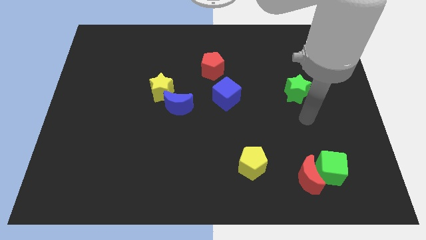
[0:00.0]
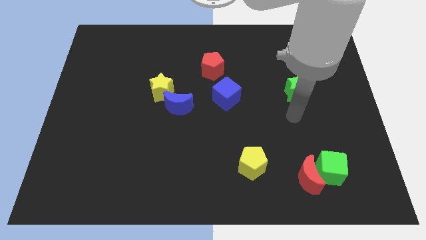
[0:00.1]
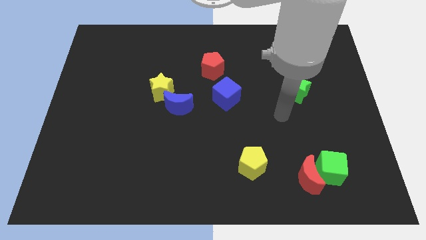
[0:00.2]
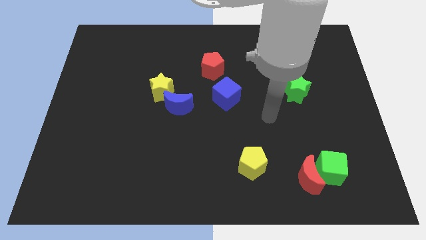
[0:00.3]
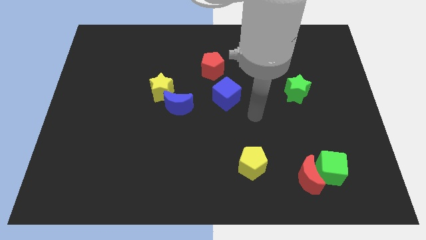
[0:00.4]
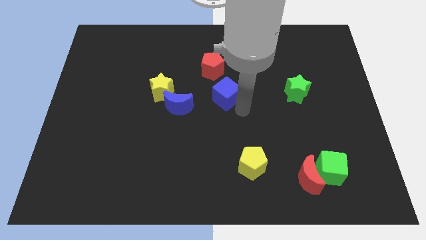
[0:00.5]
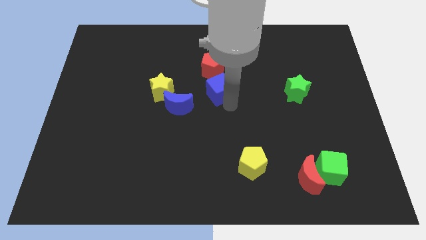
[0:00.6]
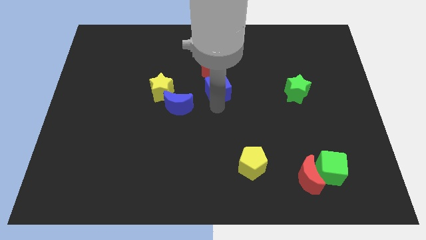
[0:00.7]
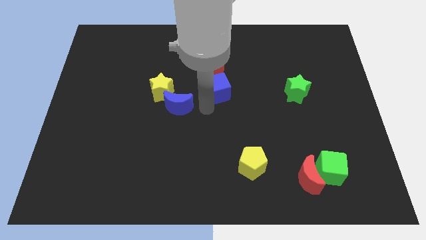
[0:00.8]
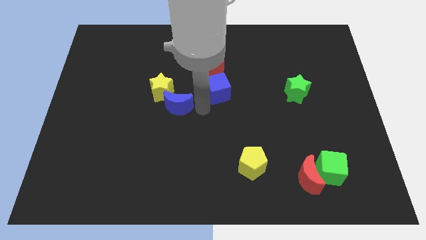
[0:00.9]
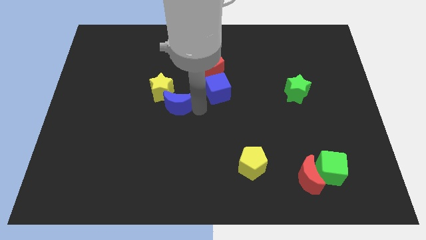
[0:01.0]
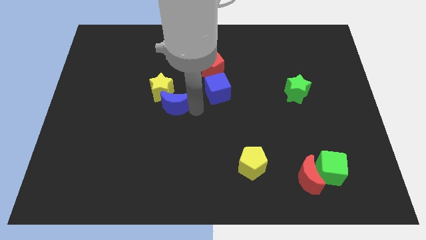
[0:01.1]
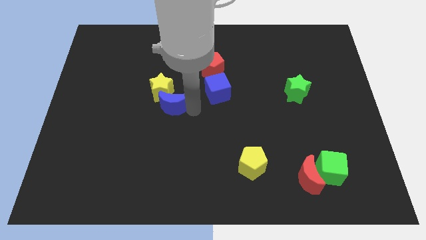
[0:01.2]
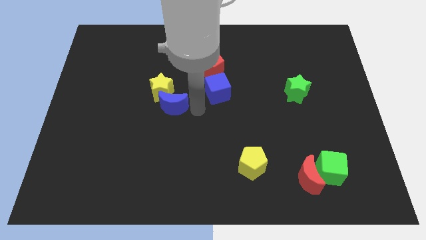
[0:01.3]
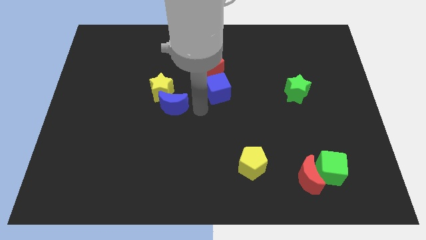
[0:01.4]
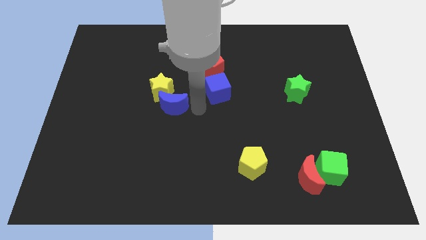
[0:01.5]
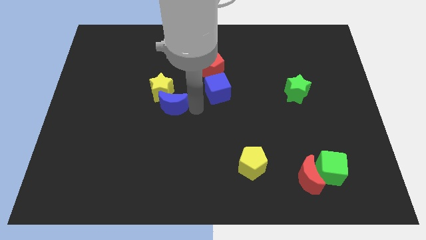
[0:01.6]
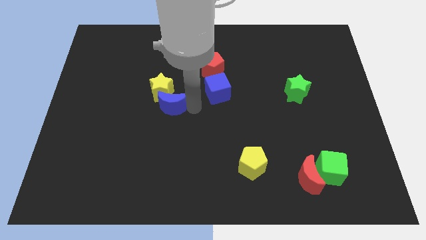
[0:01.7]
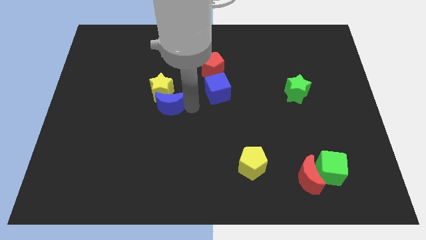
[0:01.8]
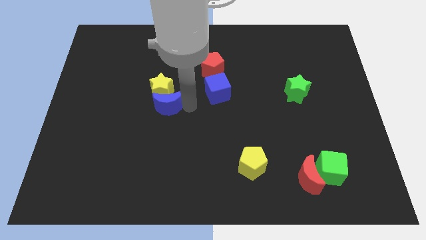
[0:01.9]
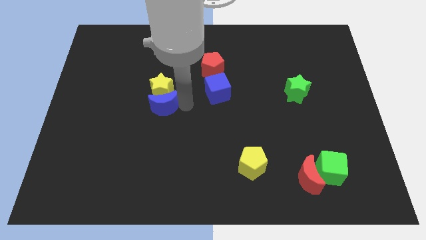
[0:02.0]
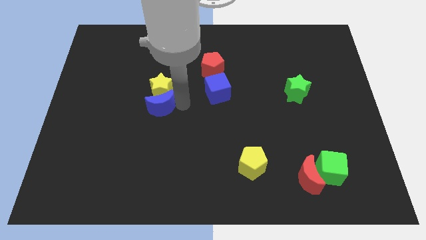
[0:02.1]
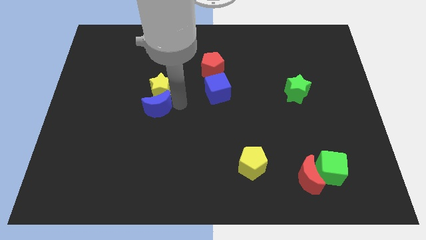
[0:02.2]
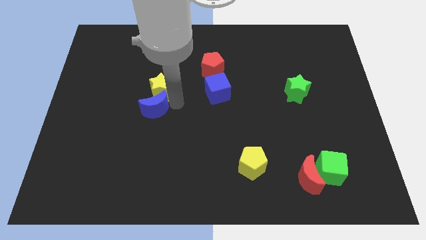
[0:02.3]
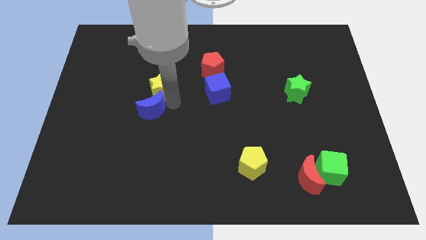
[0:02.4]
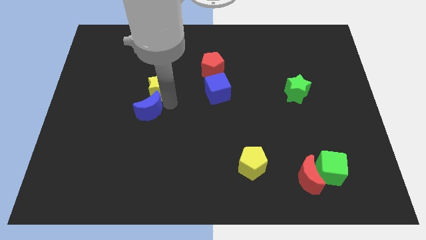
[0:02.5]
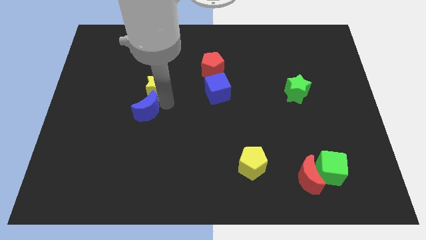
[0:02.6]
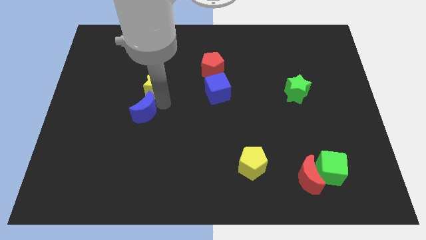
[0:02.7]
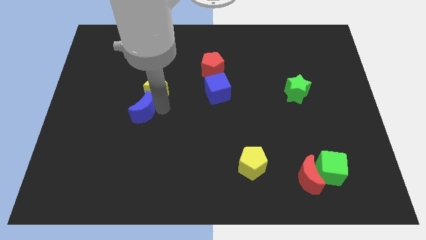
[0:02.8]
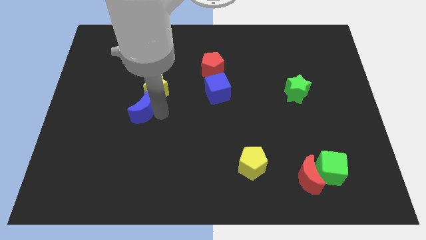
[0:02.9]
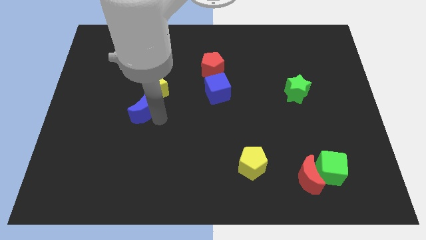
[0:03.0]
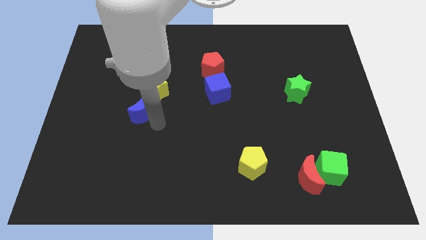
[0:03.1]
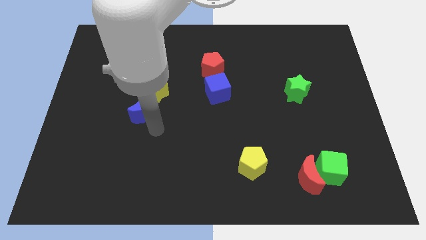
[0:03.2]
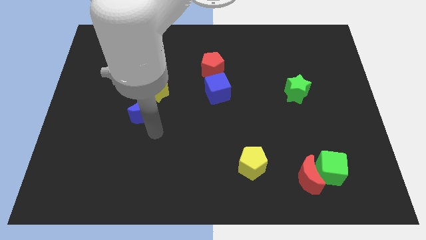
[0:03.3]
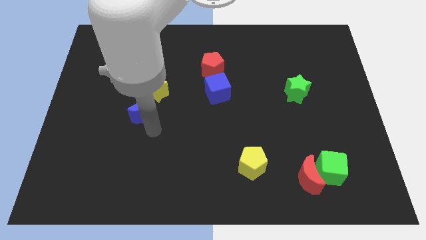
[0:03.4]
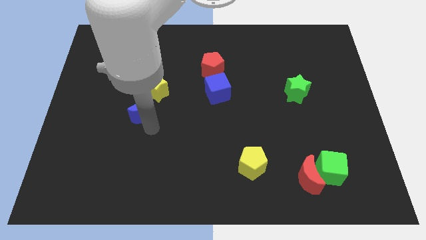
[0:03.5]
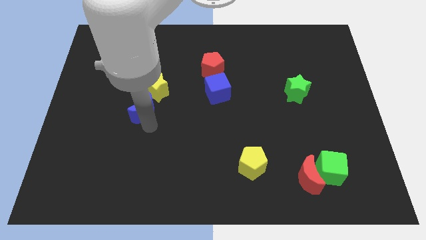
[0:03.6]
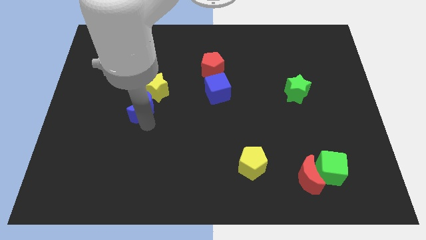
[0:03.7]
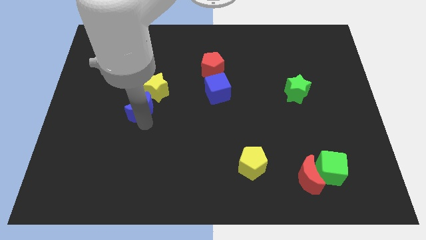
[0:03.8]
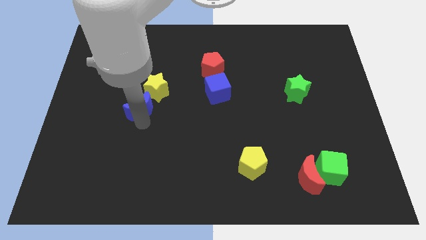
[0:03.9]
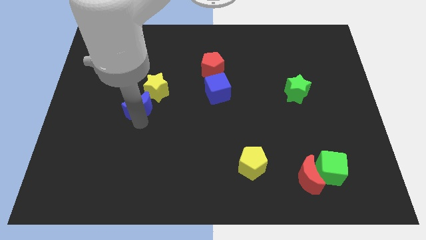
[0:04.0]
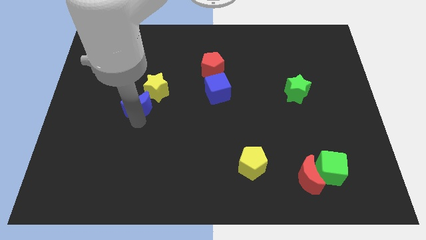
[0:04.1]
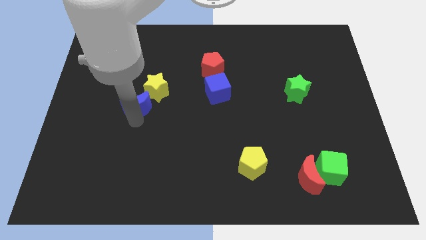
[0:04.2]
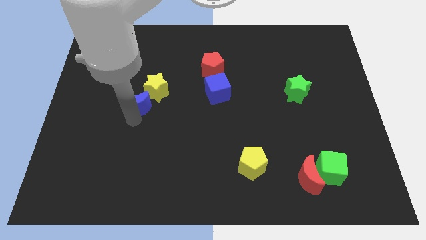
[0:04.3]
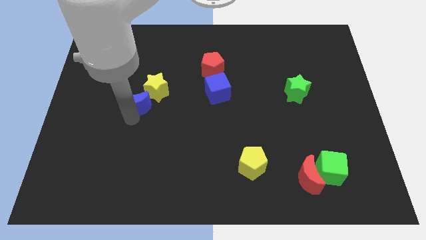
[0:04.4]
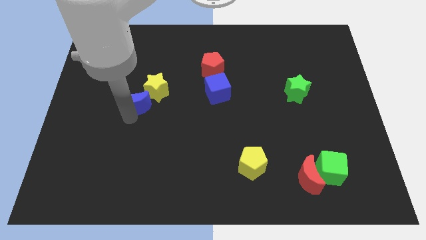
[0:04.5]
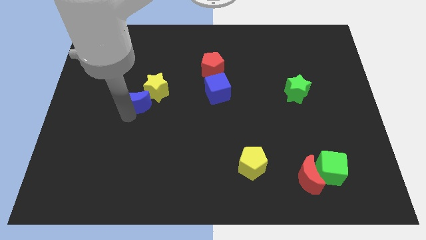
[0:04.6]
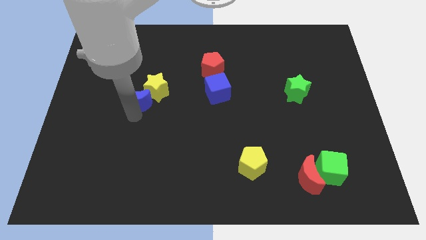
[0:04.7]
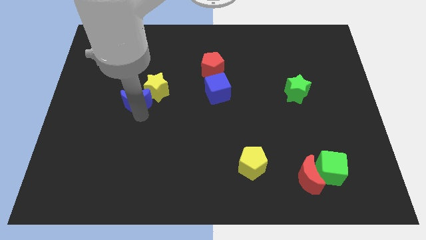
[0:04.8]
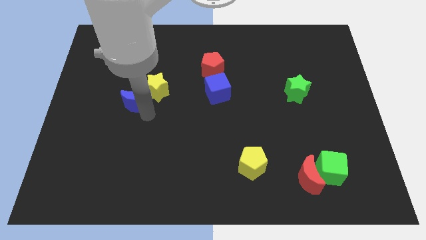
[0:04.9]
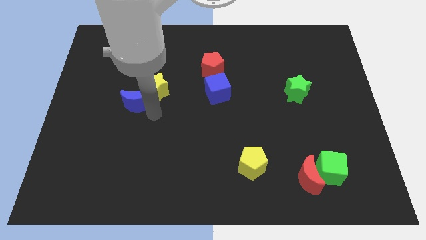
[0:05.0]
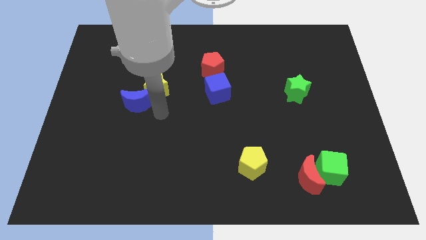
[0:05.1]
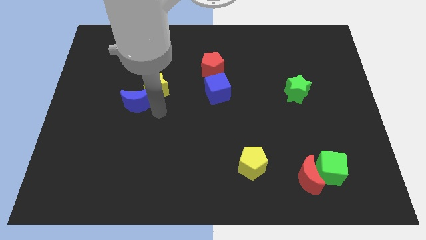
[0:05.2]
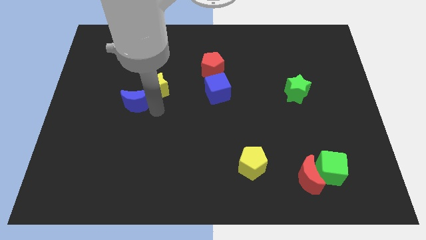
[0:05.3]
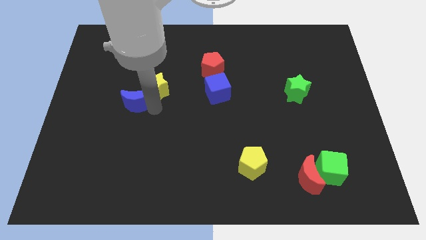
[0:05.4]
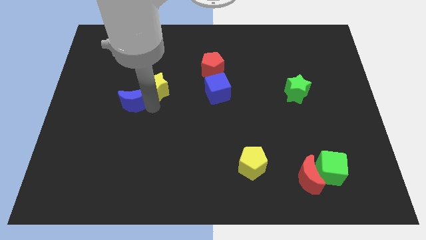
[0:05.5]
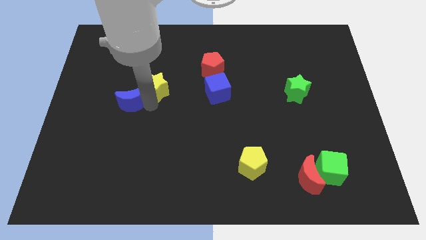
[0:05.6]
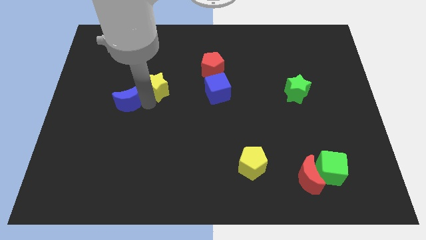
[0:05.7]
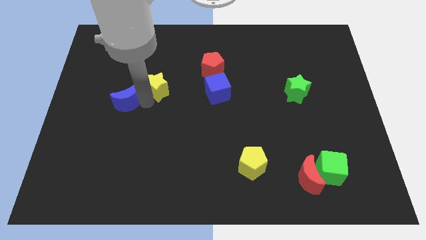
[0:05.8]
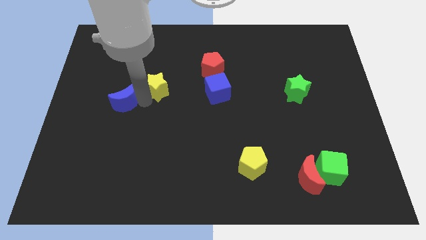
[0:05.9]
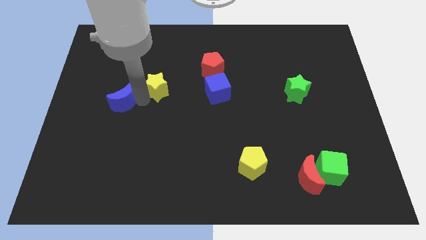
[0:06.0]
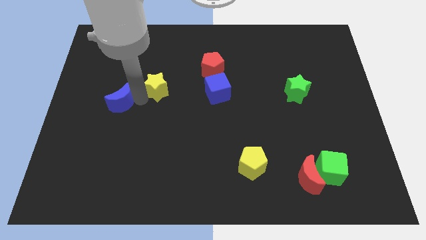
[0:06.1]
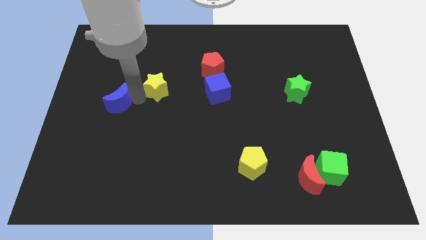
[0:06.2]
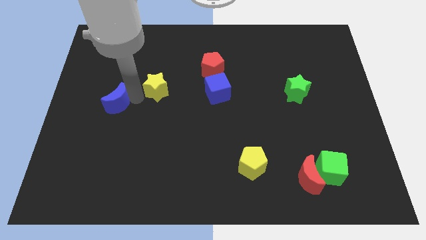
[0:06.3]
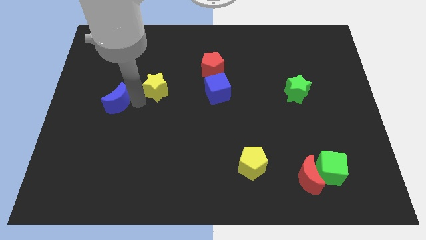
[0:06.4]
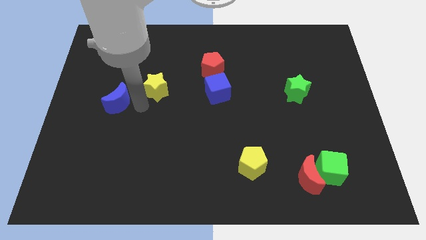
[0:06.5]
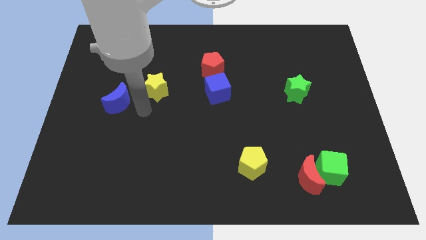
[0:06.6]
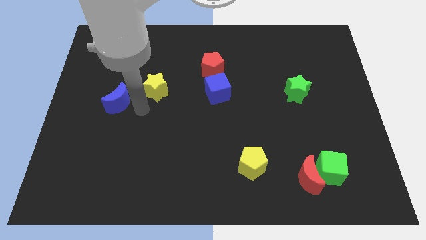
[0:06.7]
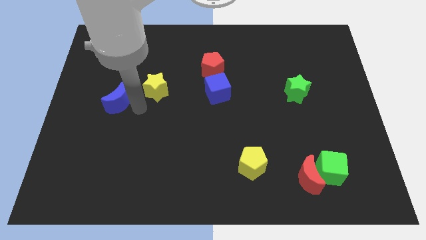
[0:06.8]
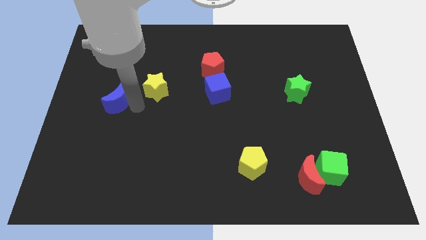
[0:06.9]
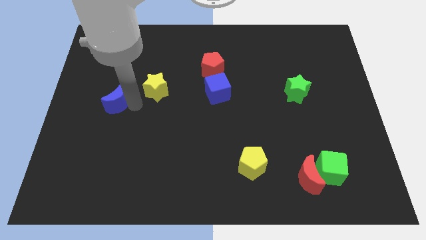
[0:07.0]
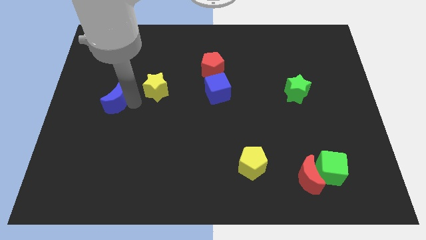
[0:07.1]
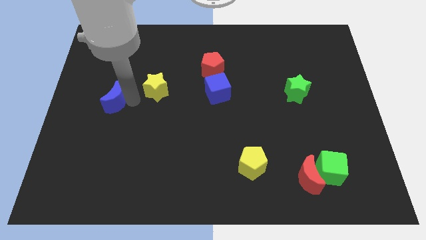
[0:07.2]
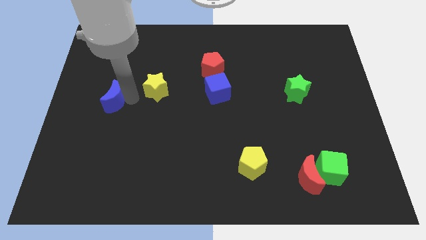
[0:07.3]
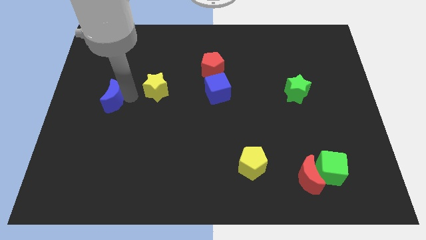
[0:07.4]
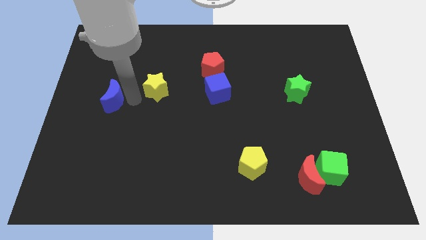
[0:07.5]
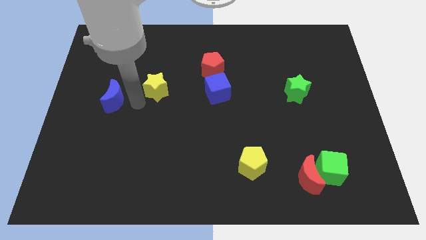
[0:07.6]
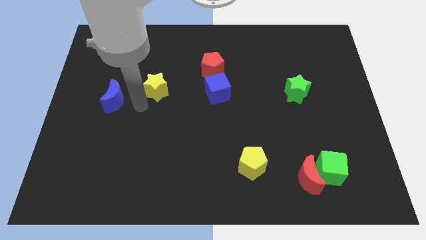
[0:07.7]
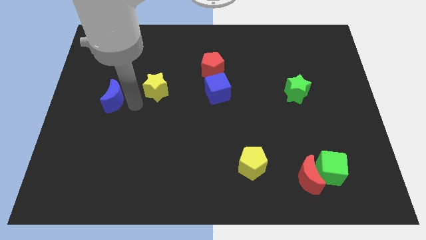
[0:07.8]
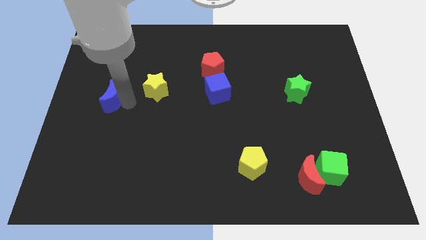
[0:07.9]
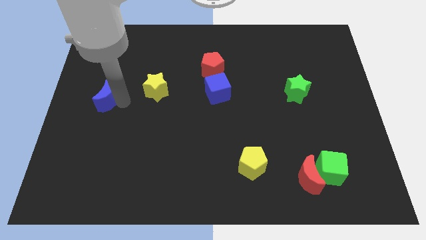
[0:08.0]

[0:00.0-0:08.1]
put the blue moon to the left side
